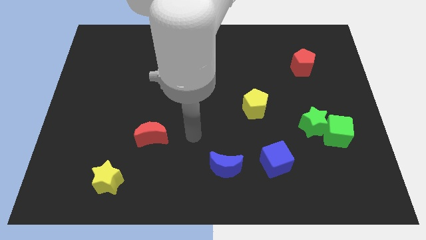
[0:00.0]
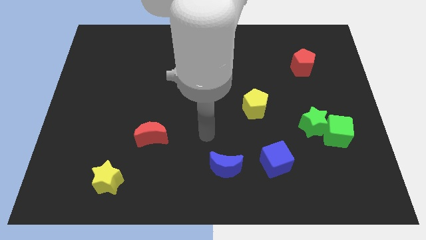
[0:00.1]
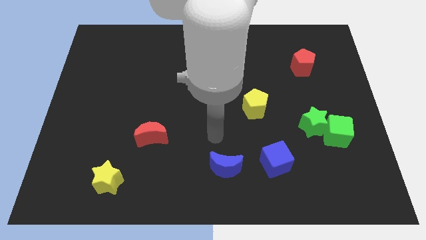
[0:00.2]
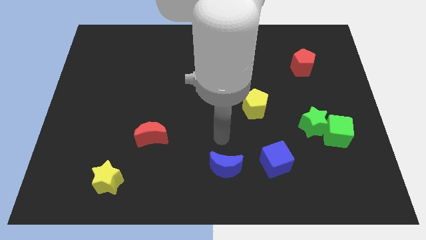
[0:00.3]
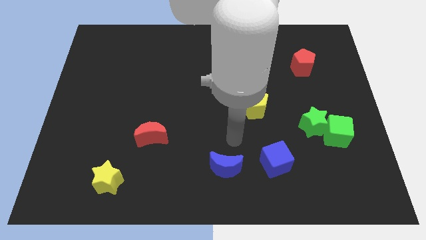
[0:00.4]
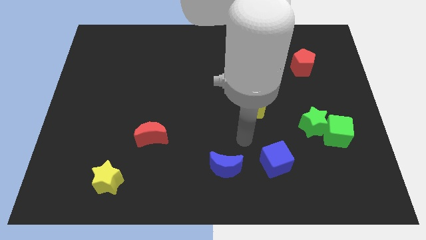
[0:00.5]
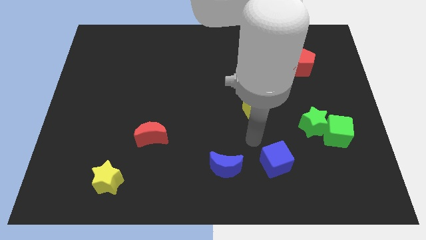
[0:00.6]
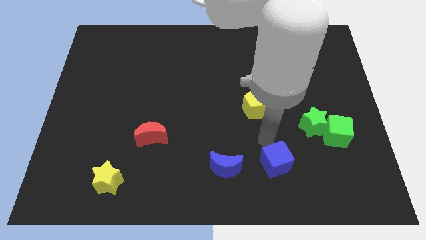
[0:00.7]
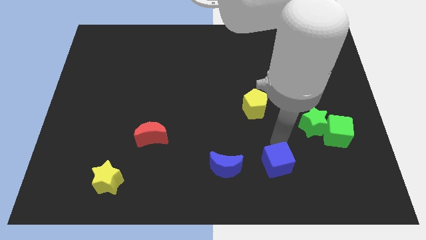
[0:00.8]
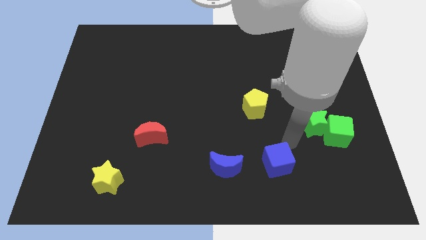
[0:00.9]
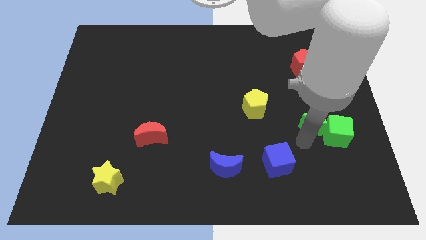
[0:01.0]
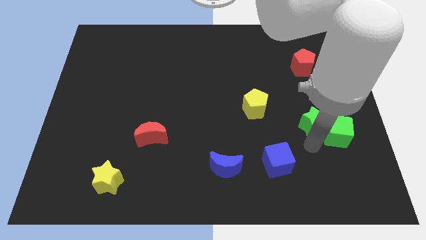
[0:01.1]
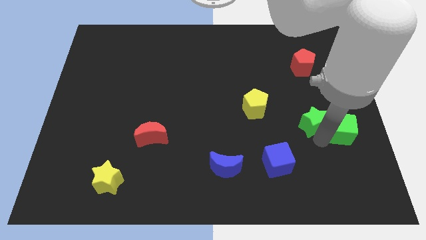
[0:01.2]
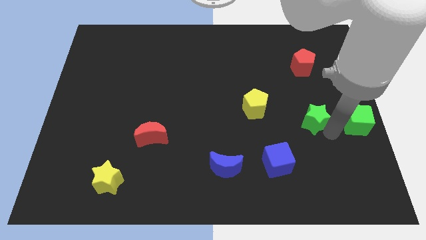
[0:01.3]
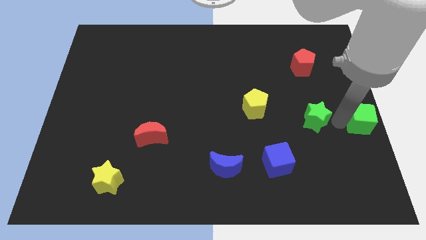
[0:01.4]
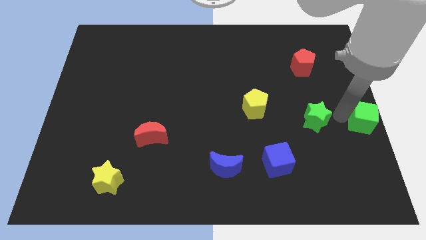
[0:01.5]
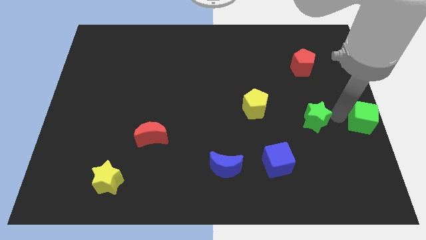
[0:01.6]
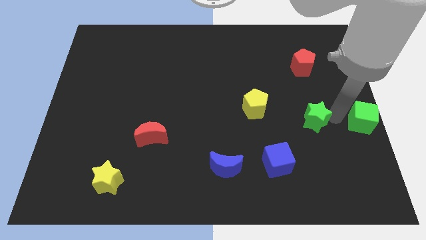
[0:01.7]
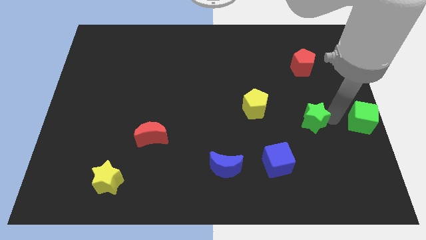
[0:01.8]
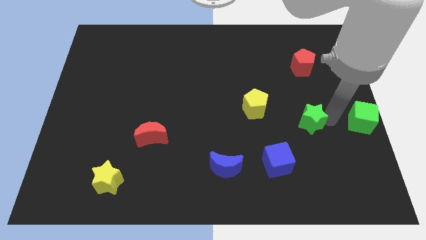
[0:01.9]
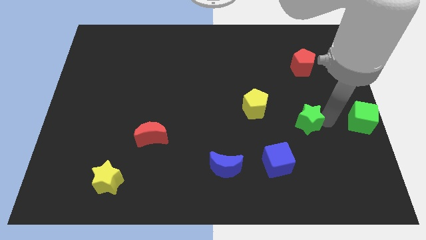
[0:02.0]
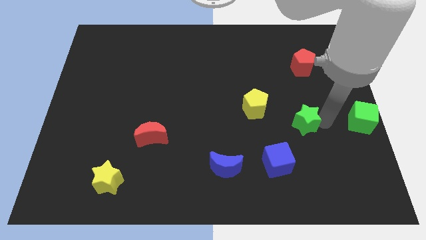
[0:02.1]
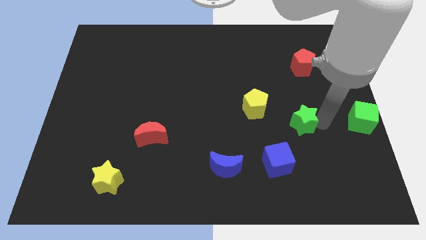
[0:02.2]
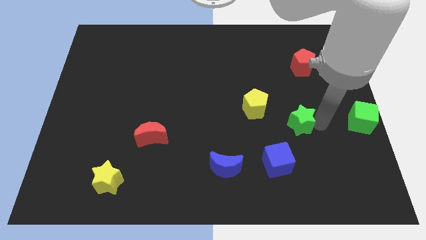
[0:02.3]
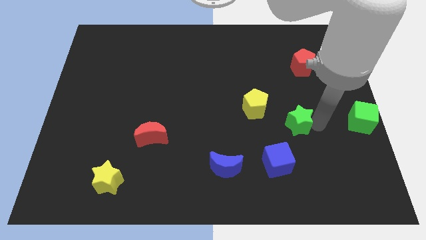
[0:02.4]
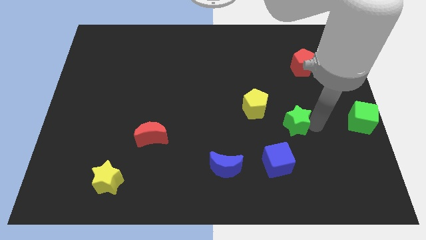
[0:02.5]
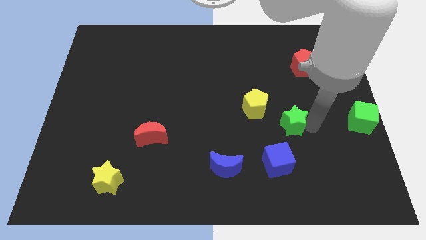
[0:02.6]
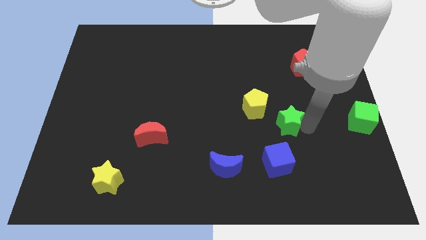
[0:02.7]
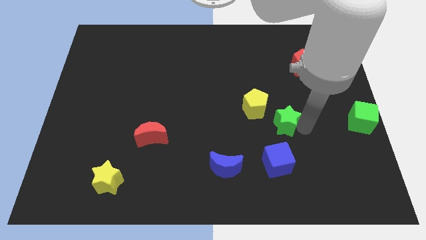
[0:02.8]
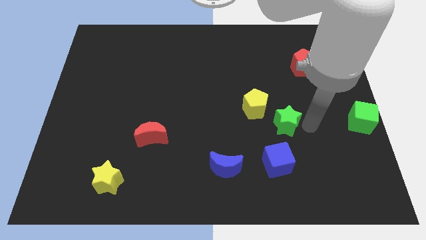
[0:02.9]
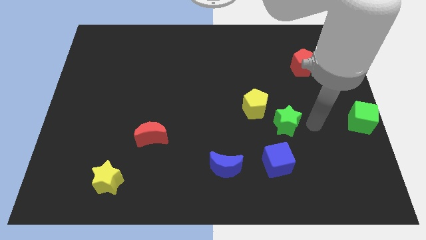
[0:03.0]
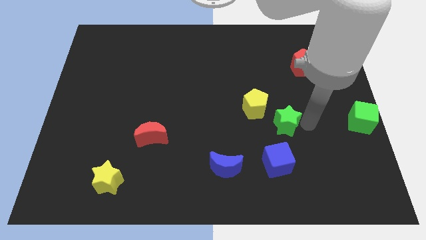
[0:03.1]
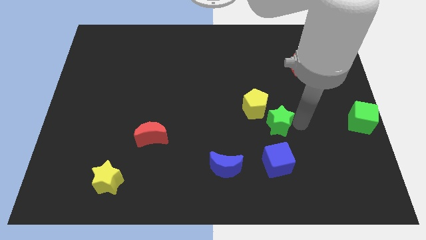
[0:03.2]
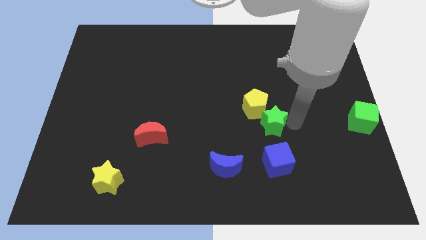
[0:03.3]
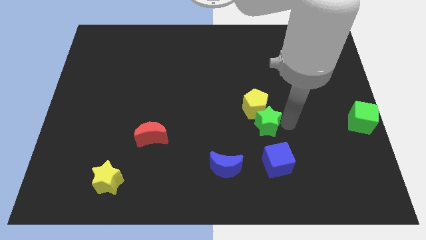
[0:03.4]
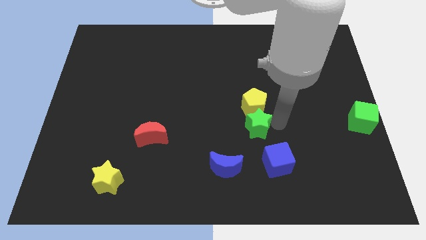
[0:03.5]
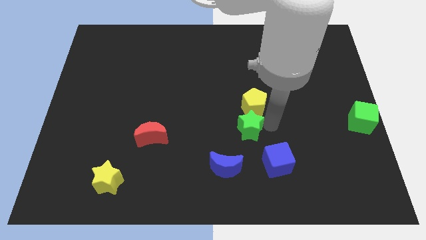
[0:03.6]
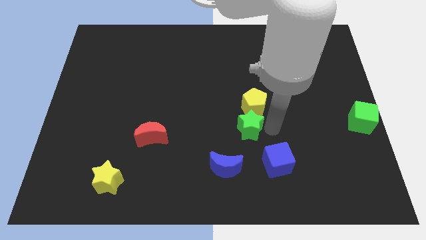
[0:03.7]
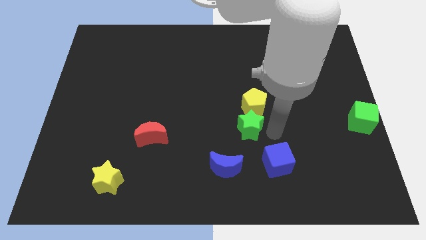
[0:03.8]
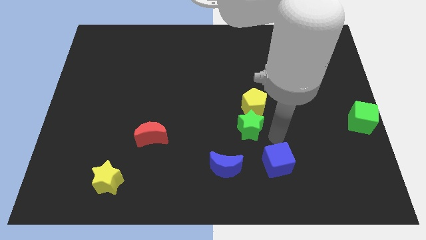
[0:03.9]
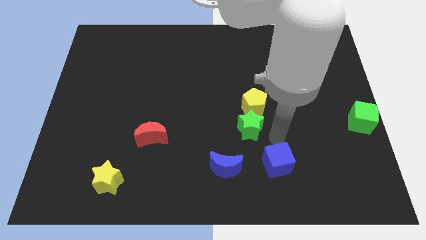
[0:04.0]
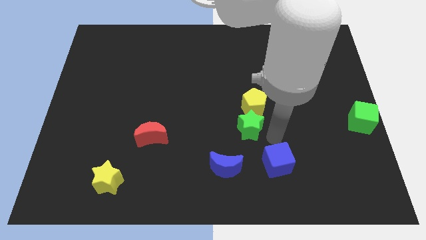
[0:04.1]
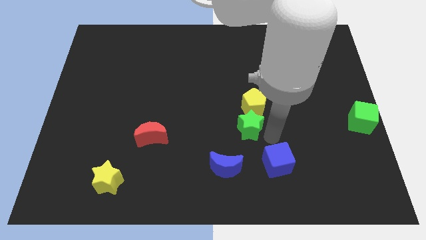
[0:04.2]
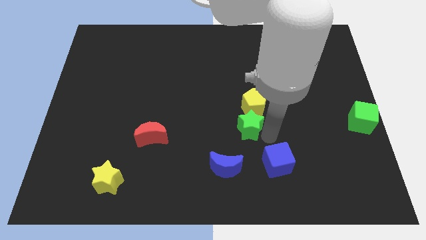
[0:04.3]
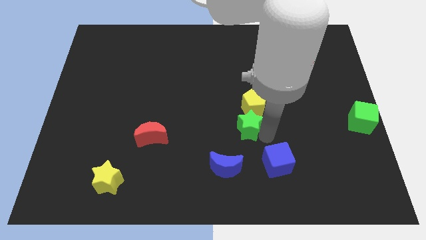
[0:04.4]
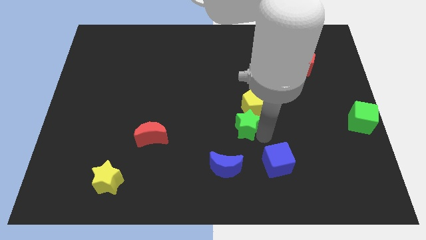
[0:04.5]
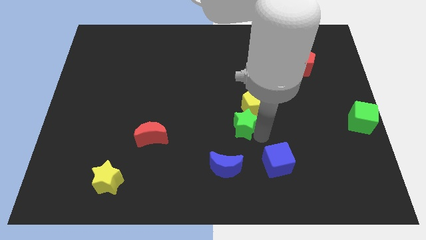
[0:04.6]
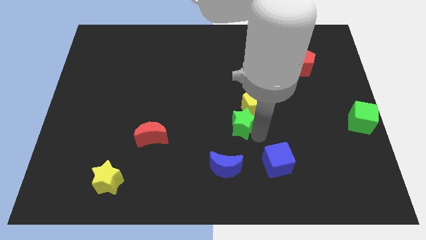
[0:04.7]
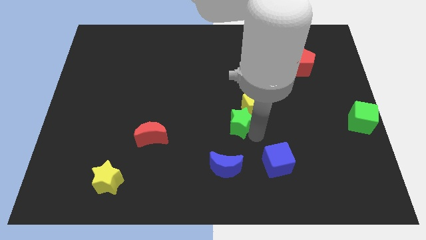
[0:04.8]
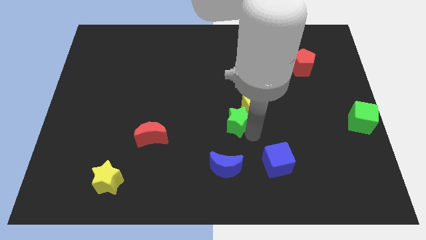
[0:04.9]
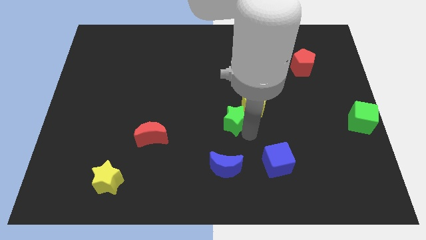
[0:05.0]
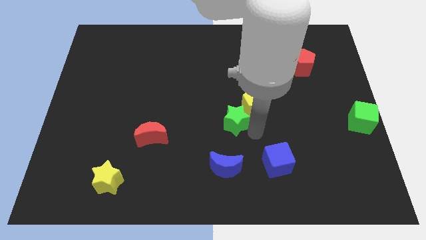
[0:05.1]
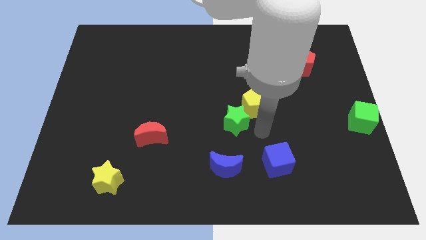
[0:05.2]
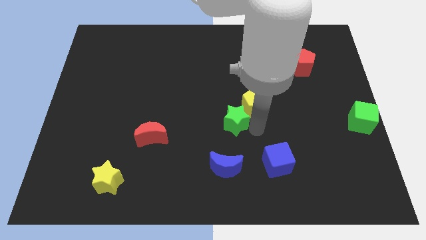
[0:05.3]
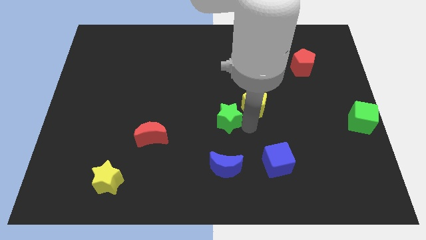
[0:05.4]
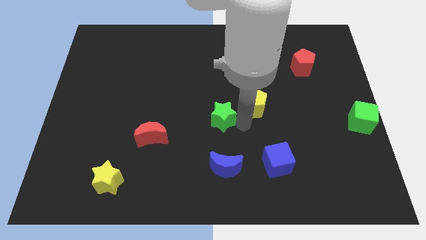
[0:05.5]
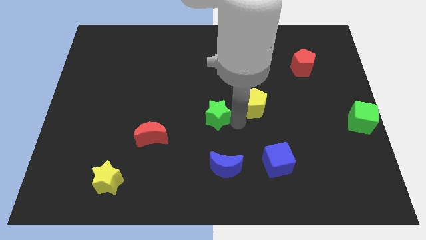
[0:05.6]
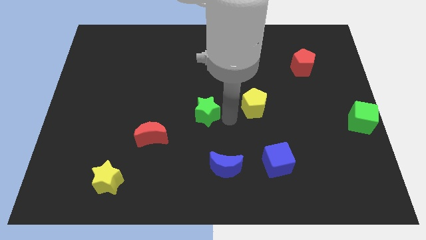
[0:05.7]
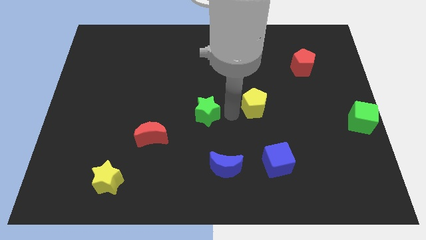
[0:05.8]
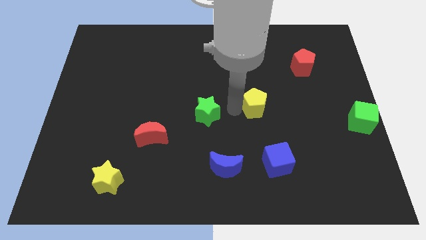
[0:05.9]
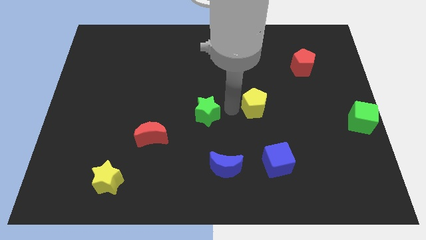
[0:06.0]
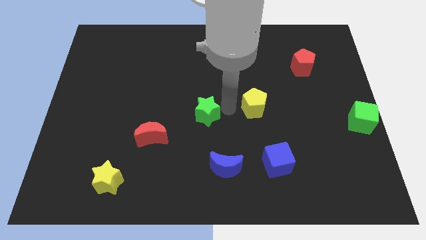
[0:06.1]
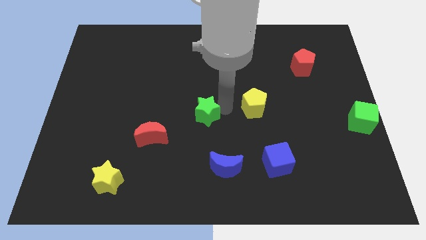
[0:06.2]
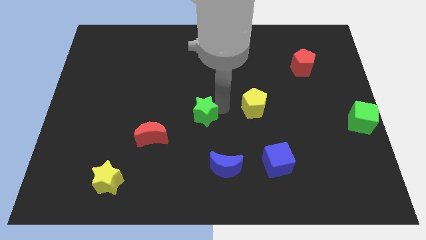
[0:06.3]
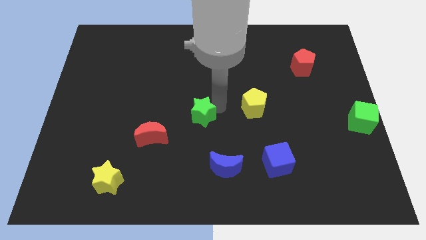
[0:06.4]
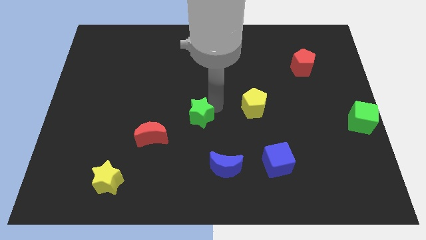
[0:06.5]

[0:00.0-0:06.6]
move the green star to the top right of the red moon
